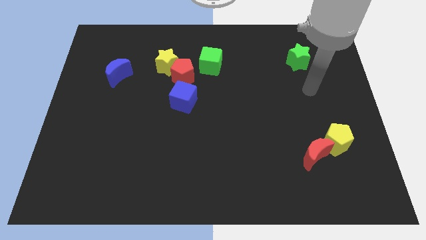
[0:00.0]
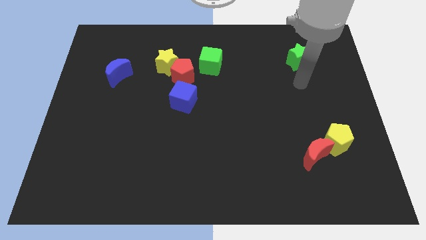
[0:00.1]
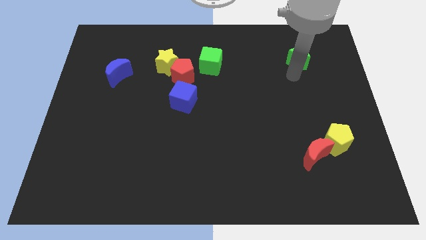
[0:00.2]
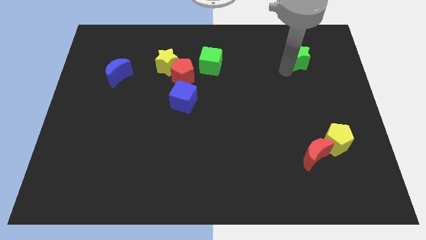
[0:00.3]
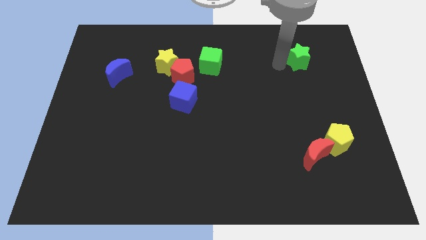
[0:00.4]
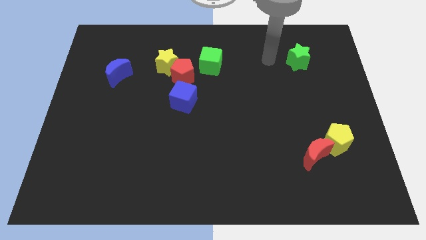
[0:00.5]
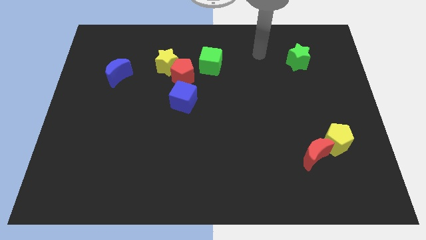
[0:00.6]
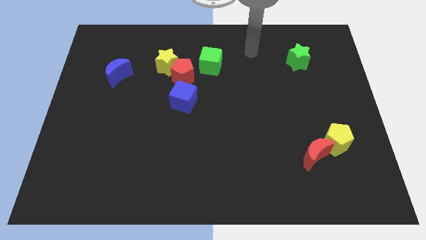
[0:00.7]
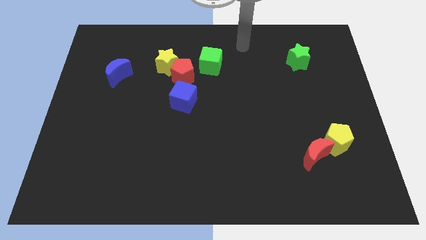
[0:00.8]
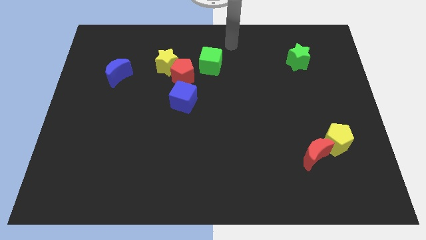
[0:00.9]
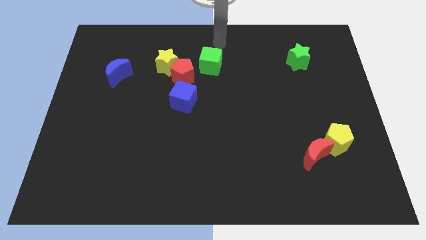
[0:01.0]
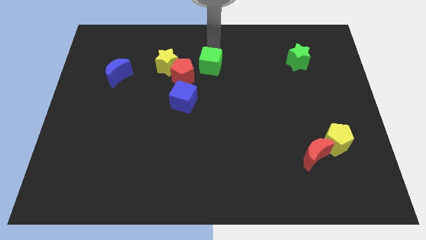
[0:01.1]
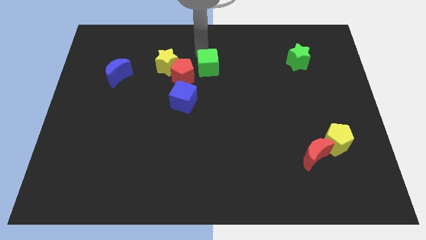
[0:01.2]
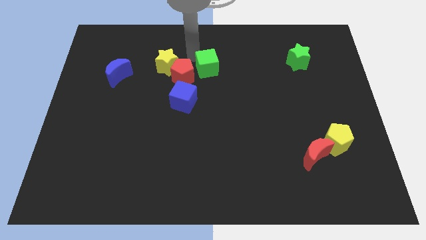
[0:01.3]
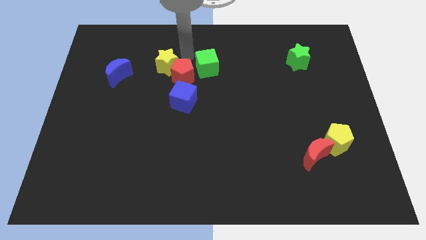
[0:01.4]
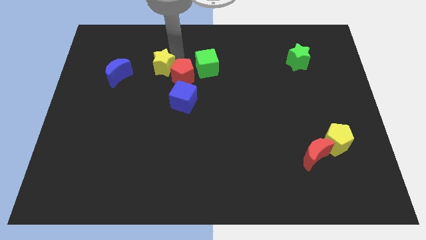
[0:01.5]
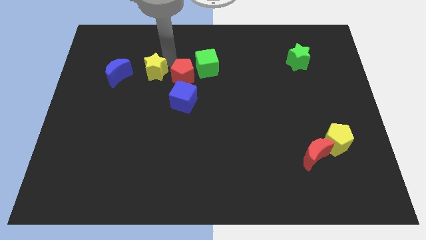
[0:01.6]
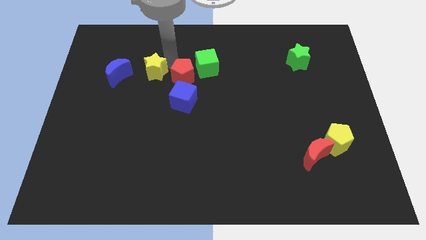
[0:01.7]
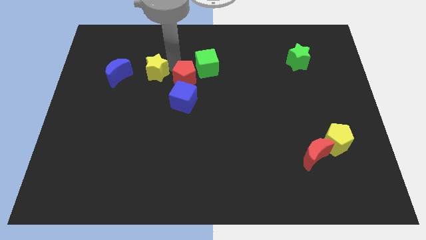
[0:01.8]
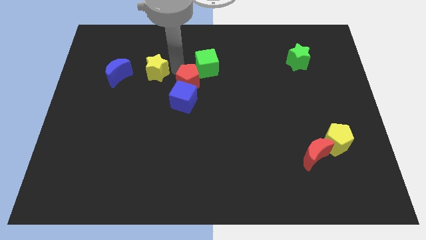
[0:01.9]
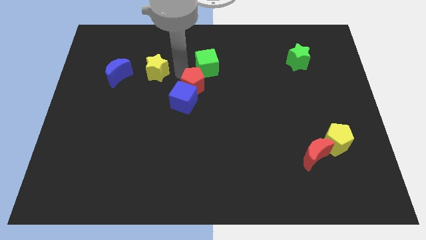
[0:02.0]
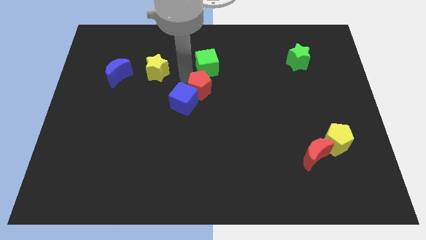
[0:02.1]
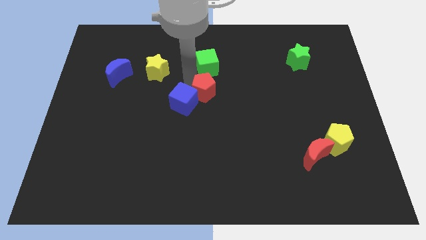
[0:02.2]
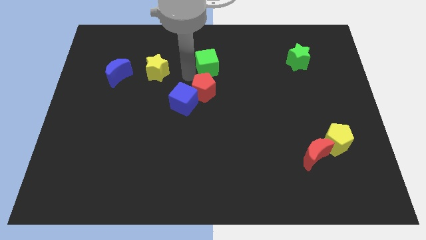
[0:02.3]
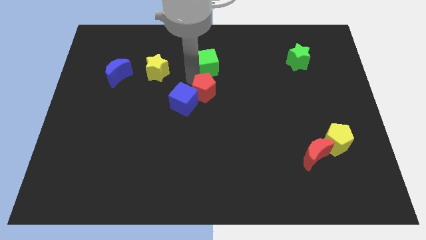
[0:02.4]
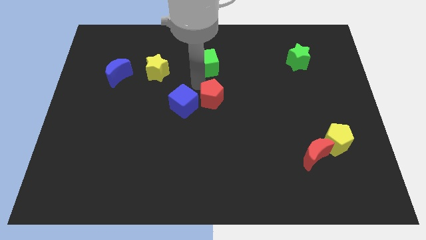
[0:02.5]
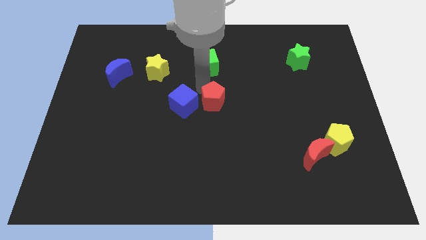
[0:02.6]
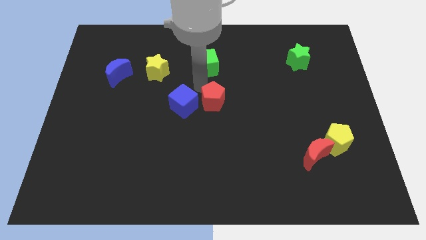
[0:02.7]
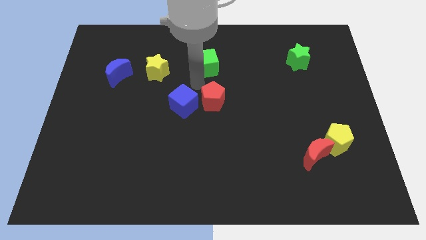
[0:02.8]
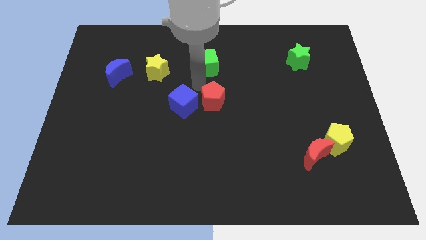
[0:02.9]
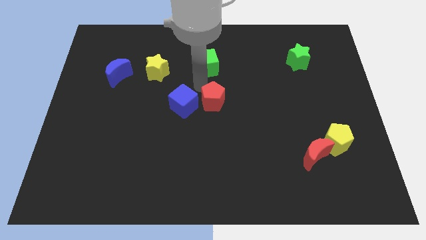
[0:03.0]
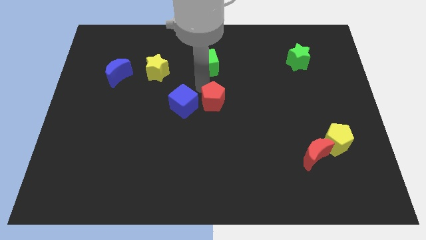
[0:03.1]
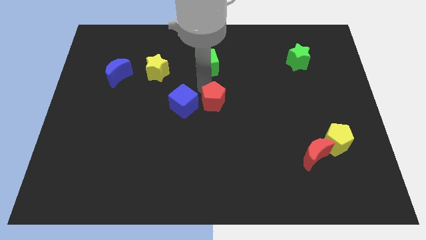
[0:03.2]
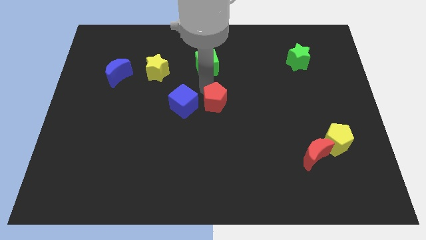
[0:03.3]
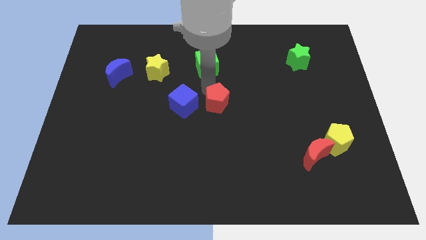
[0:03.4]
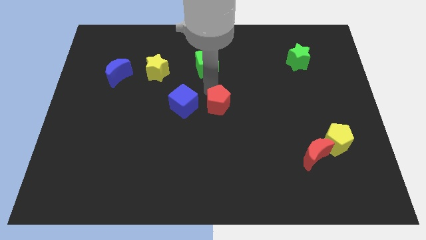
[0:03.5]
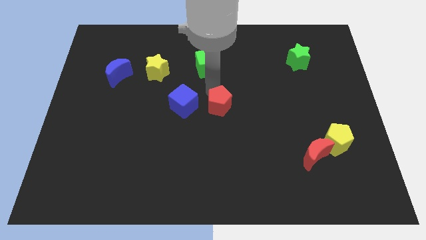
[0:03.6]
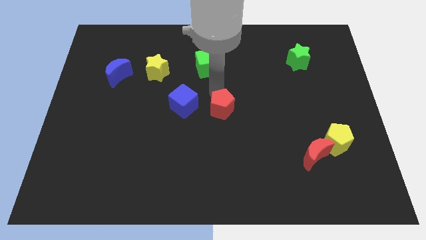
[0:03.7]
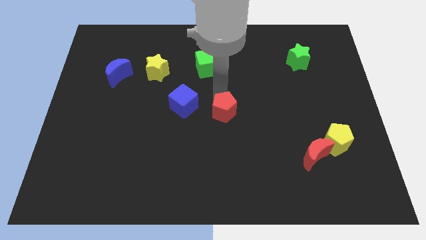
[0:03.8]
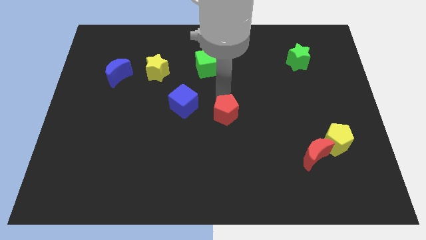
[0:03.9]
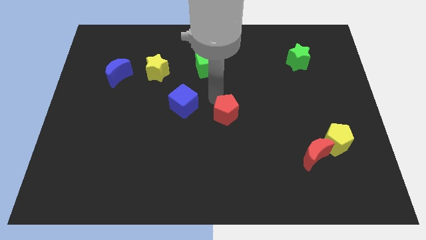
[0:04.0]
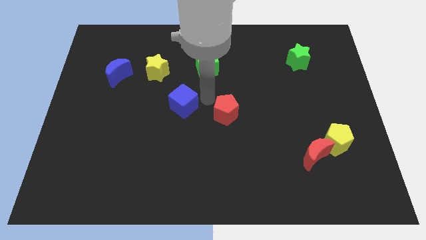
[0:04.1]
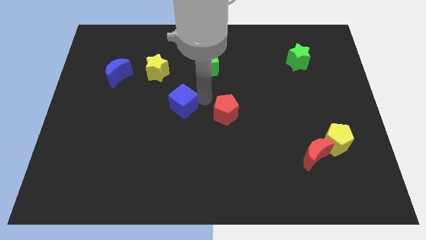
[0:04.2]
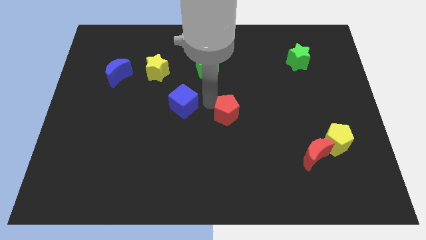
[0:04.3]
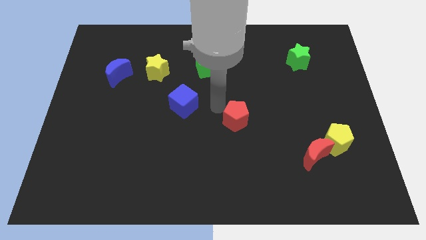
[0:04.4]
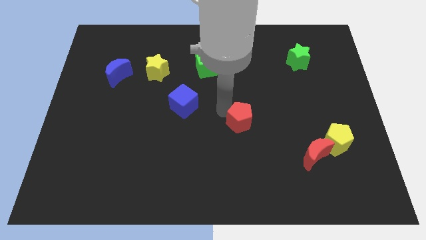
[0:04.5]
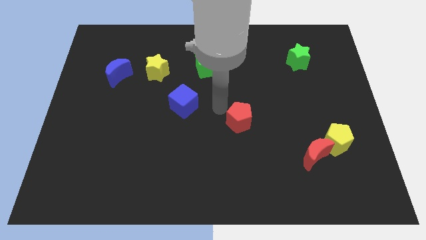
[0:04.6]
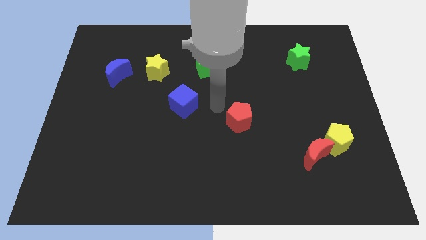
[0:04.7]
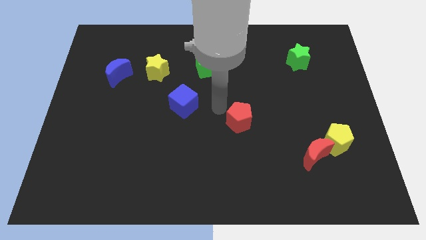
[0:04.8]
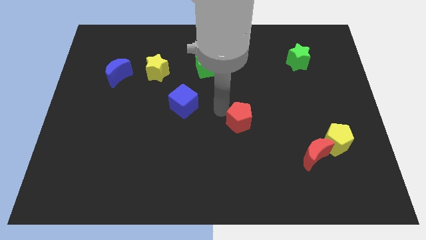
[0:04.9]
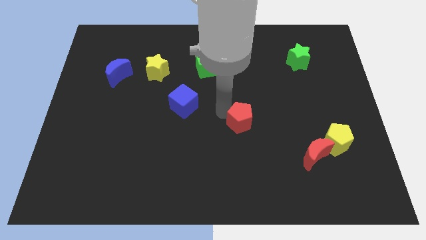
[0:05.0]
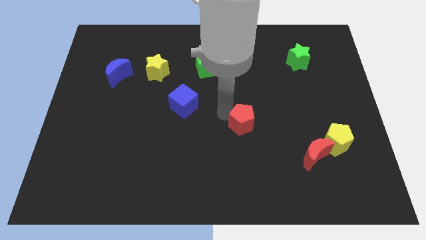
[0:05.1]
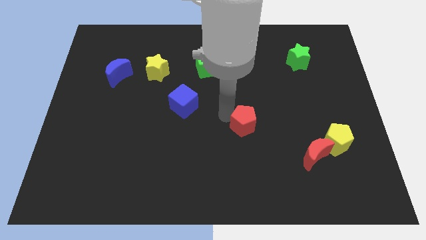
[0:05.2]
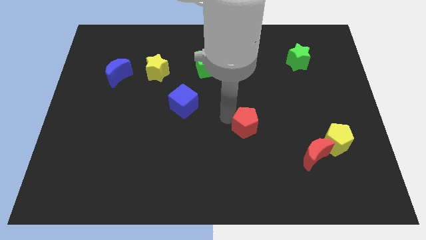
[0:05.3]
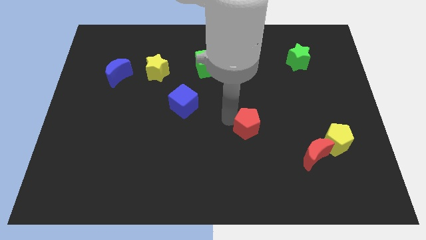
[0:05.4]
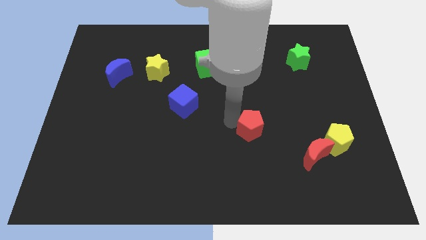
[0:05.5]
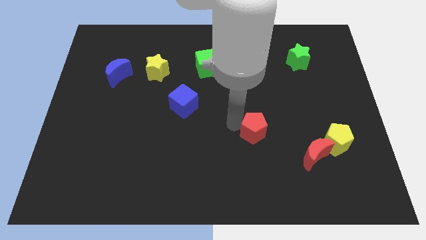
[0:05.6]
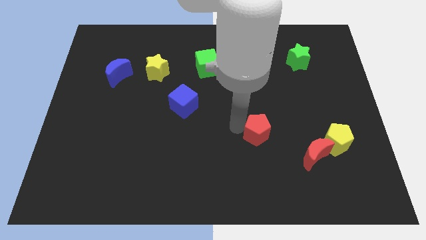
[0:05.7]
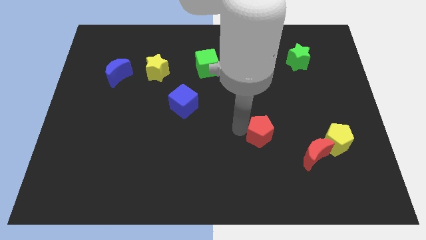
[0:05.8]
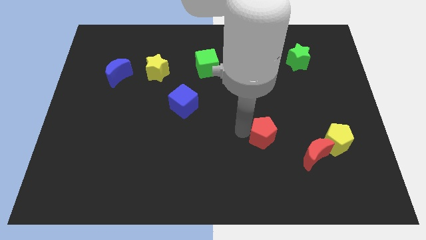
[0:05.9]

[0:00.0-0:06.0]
move the red pentagon left of the yellow pentagon
